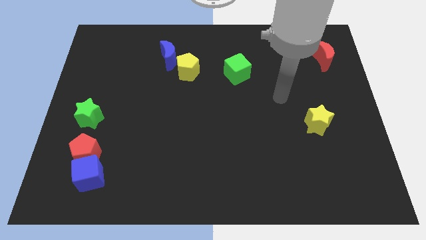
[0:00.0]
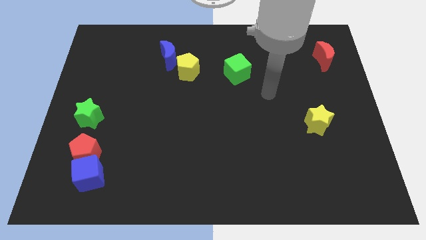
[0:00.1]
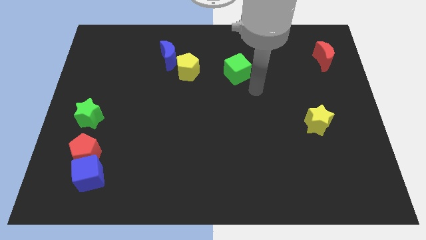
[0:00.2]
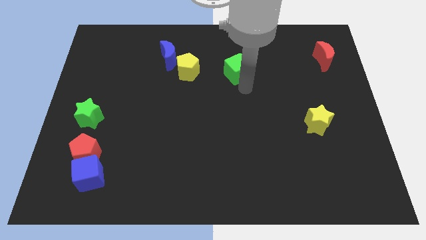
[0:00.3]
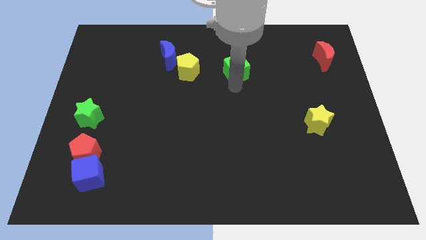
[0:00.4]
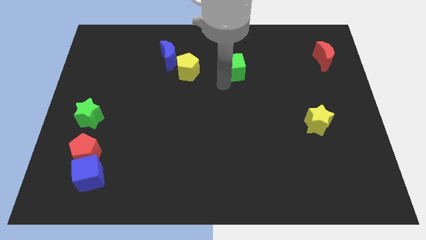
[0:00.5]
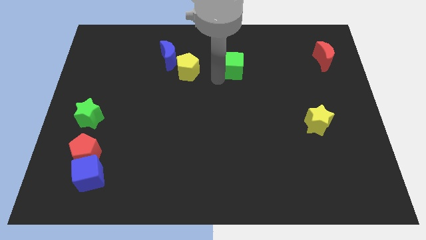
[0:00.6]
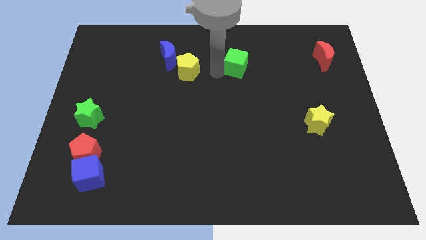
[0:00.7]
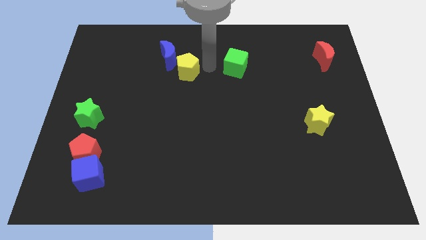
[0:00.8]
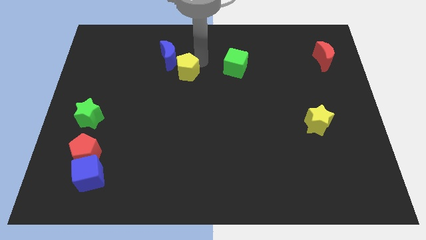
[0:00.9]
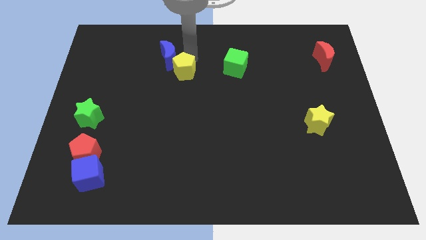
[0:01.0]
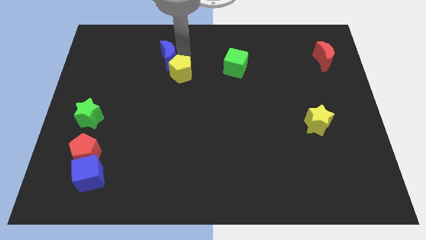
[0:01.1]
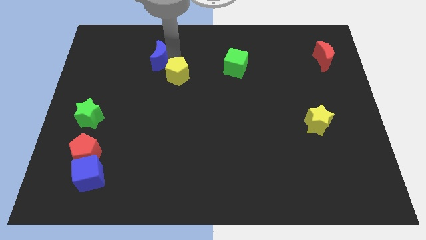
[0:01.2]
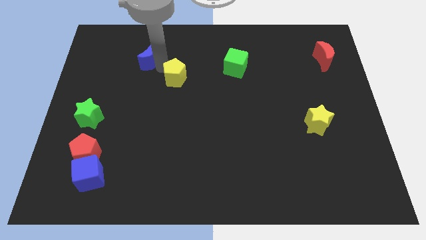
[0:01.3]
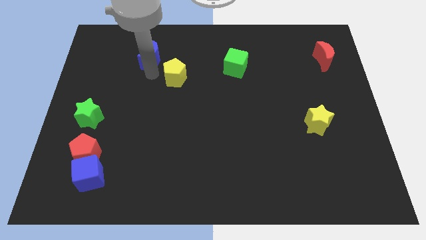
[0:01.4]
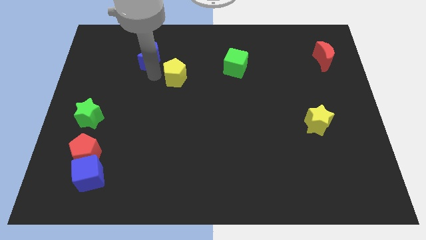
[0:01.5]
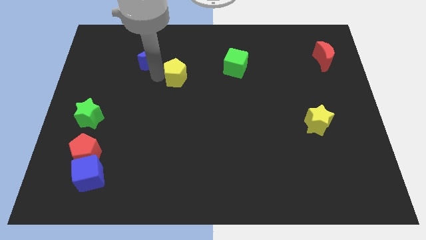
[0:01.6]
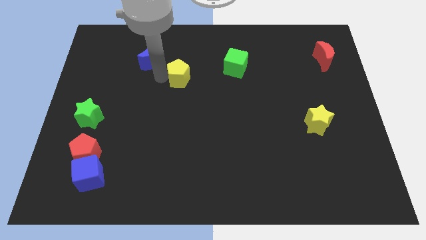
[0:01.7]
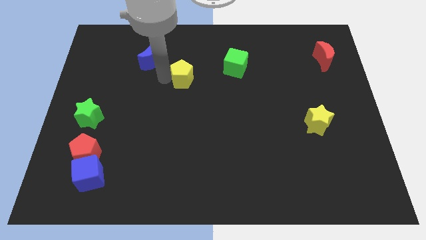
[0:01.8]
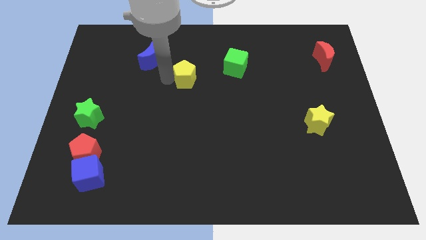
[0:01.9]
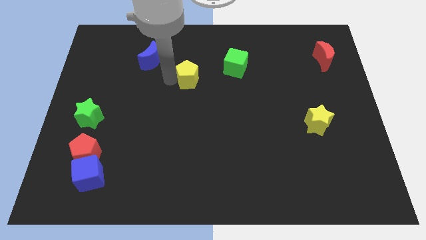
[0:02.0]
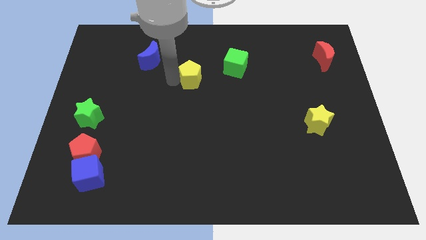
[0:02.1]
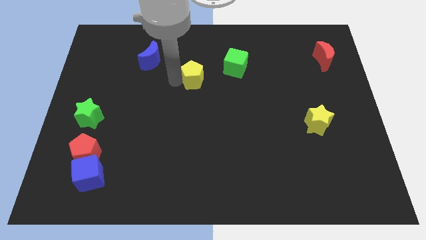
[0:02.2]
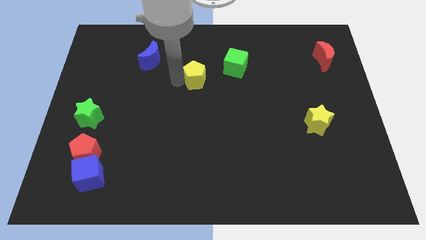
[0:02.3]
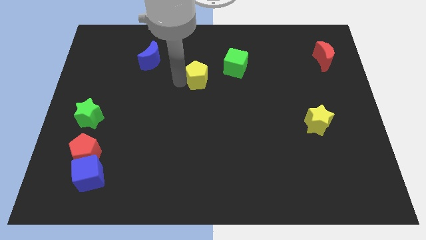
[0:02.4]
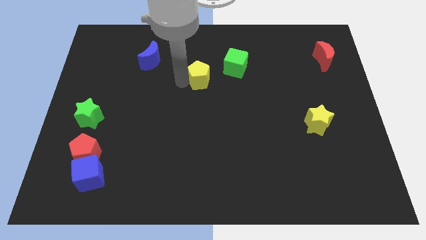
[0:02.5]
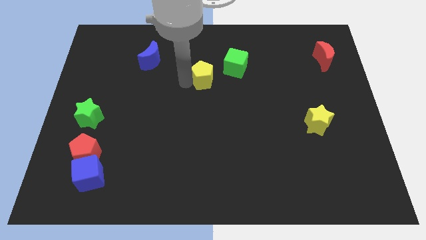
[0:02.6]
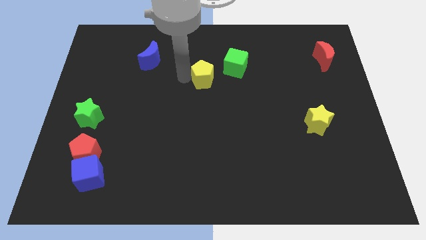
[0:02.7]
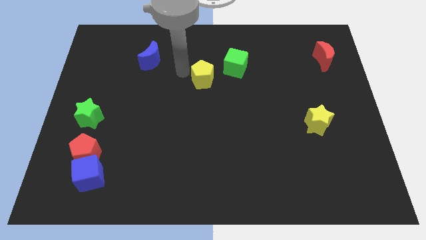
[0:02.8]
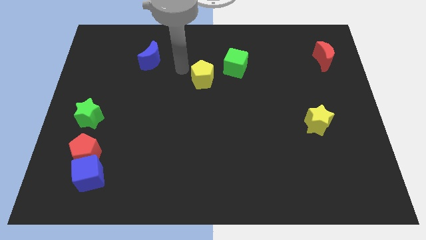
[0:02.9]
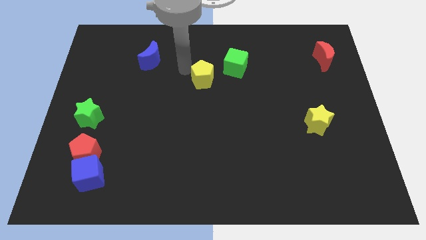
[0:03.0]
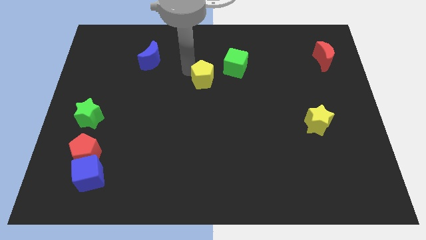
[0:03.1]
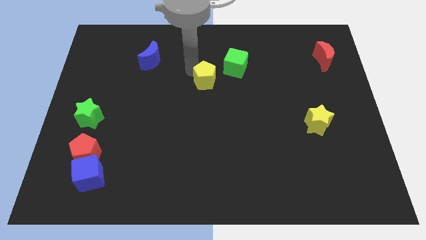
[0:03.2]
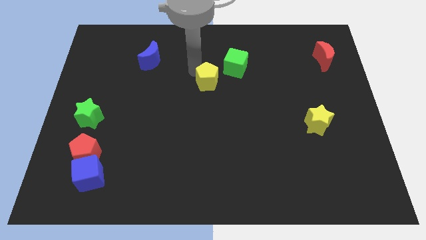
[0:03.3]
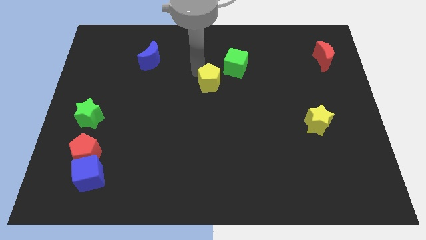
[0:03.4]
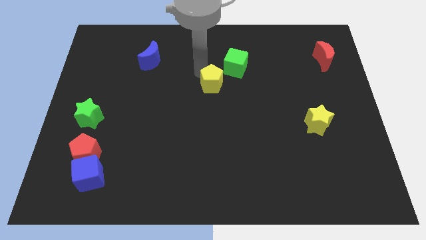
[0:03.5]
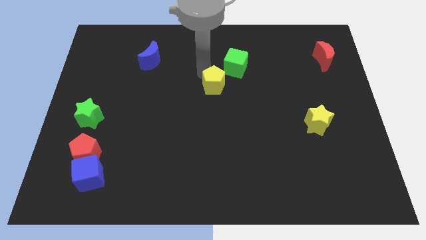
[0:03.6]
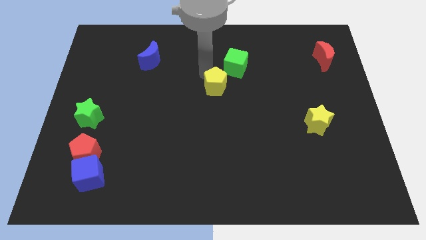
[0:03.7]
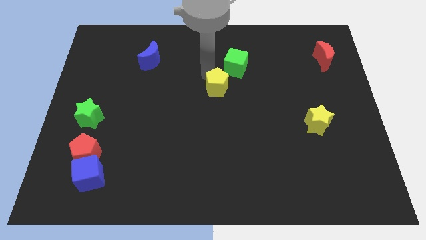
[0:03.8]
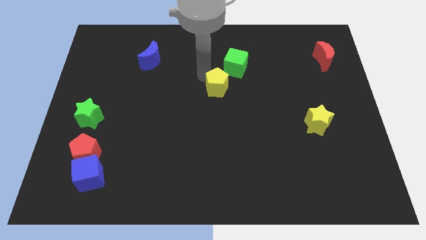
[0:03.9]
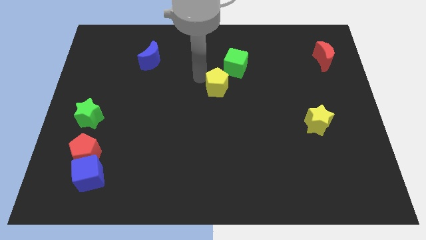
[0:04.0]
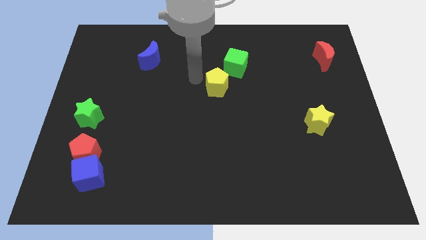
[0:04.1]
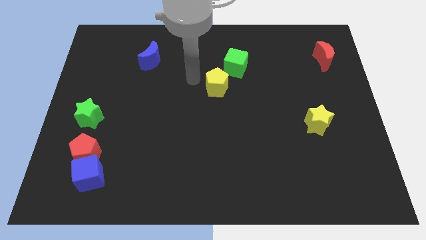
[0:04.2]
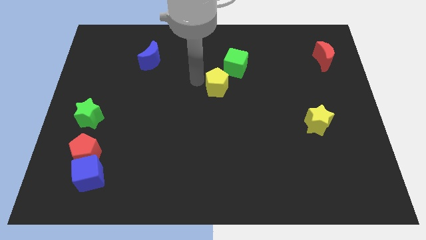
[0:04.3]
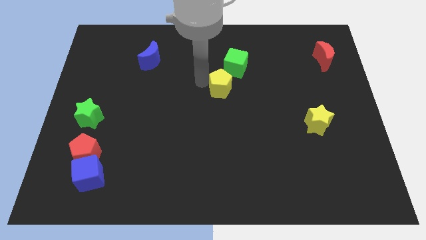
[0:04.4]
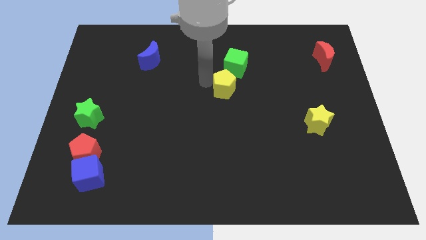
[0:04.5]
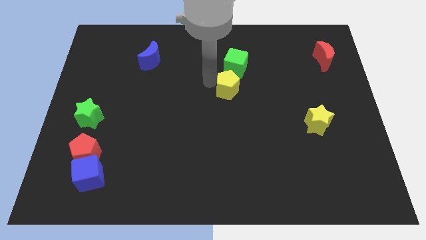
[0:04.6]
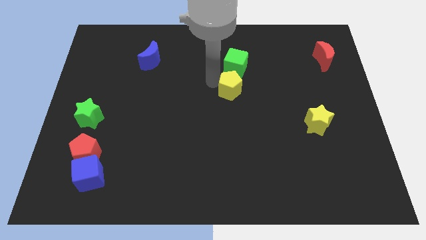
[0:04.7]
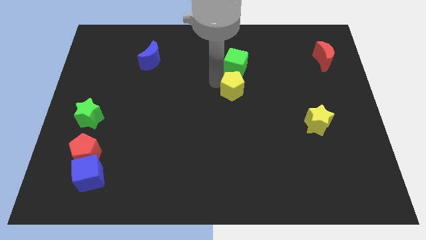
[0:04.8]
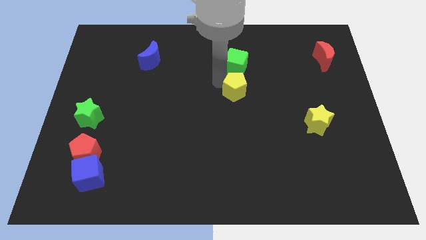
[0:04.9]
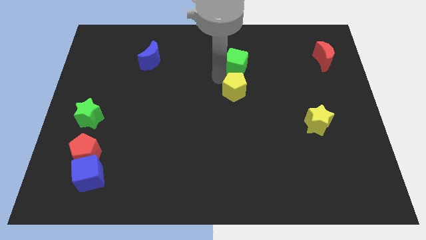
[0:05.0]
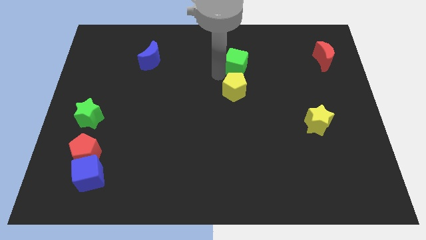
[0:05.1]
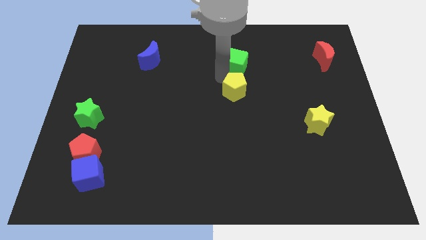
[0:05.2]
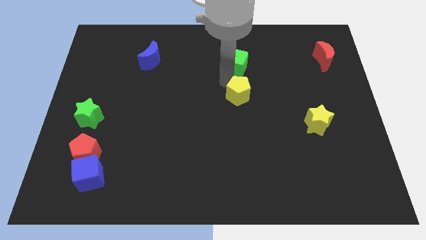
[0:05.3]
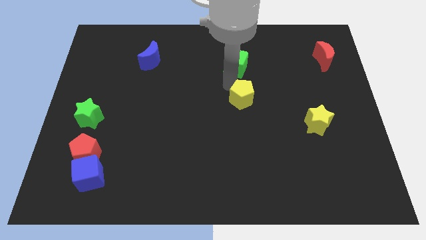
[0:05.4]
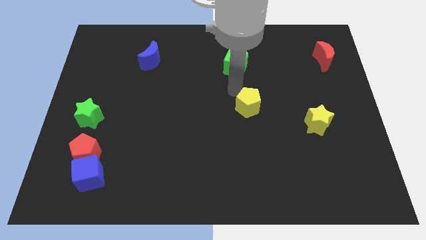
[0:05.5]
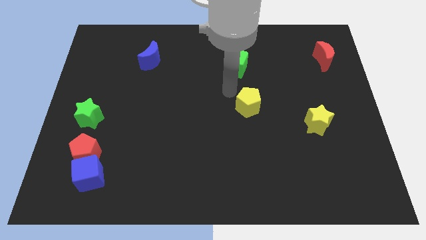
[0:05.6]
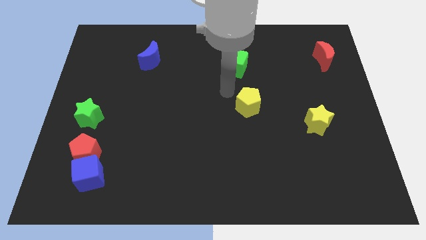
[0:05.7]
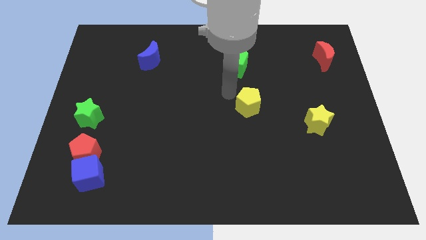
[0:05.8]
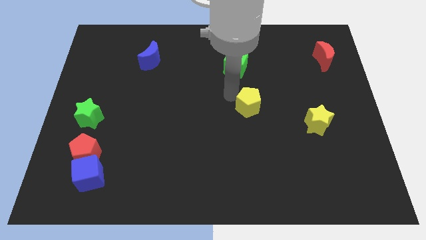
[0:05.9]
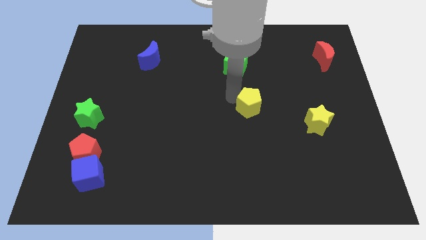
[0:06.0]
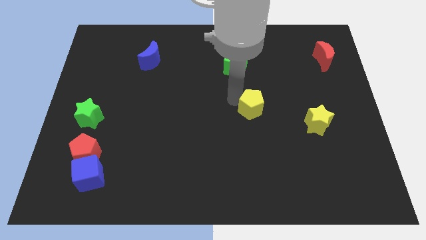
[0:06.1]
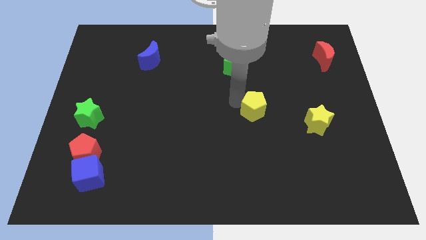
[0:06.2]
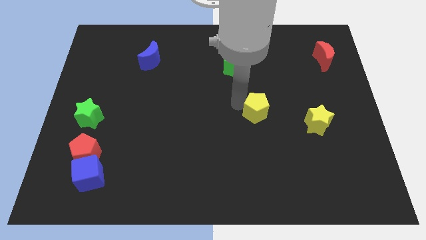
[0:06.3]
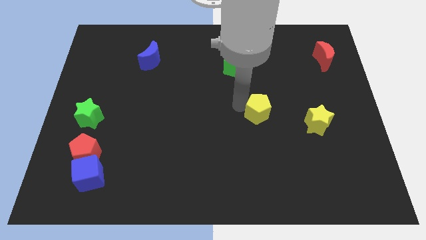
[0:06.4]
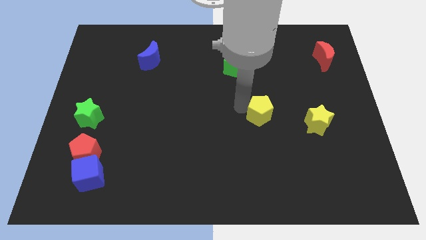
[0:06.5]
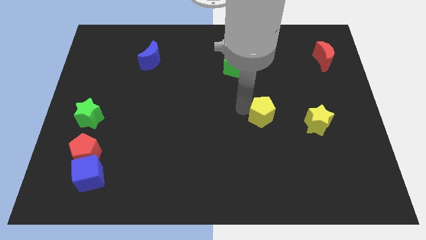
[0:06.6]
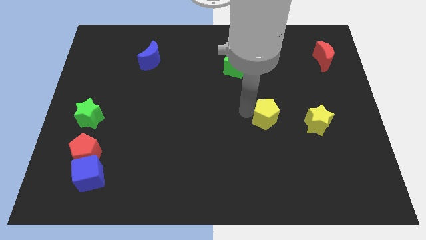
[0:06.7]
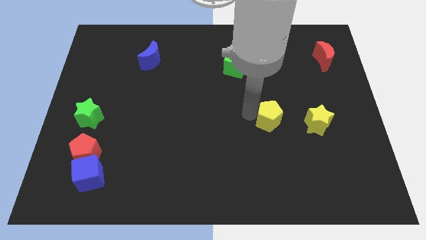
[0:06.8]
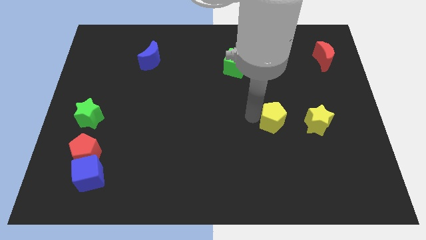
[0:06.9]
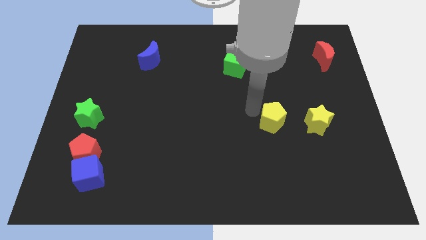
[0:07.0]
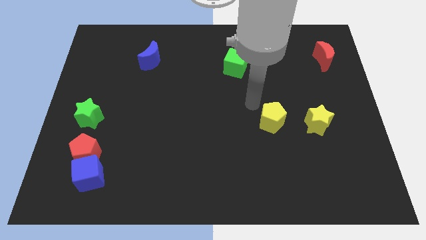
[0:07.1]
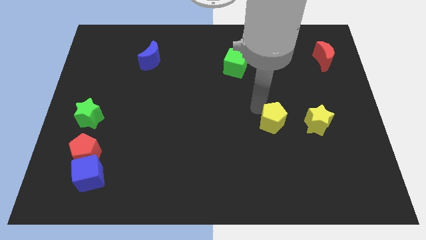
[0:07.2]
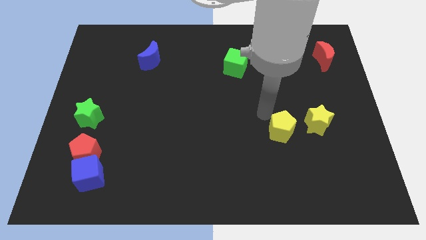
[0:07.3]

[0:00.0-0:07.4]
push the yellow pentagon diagonally down and to the left of the yellow star

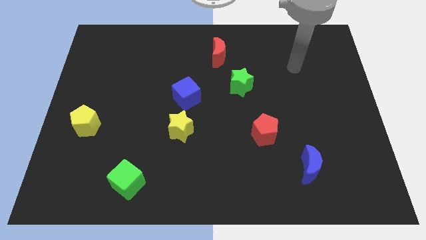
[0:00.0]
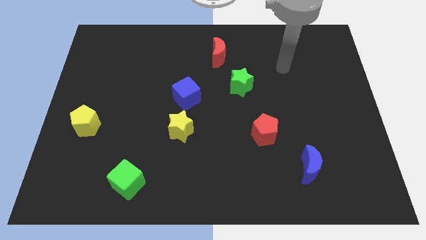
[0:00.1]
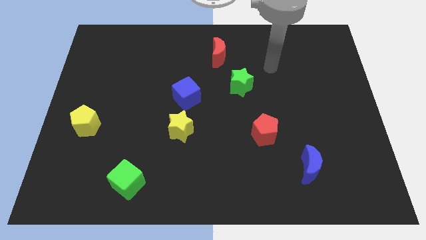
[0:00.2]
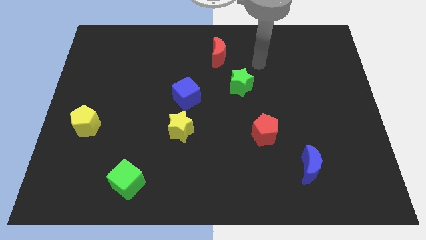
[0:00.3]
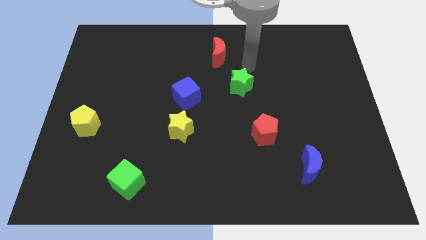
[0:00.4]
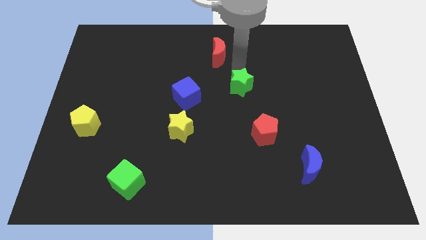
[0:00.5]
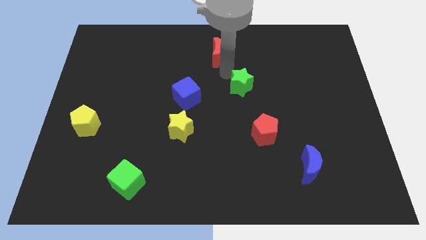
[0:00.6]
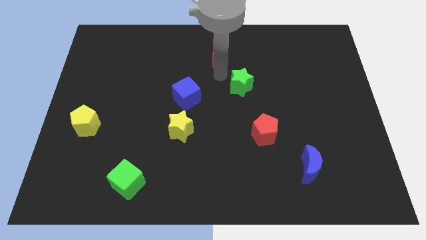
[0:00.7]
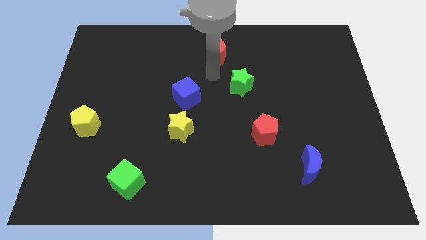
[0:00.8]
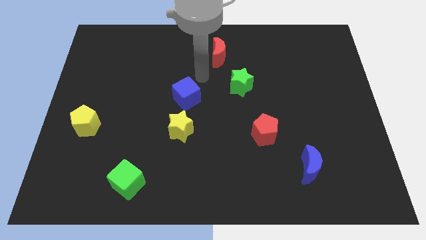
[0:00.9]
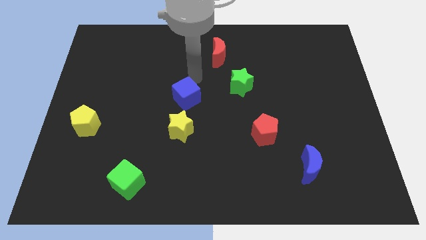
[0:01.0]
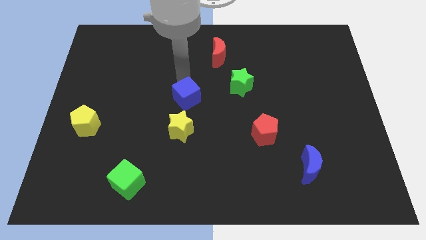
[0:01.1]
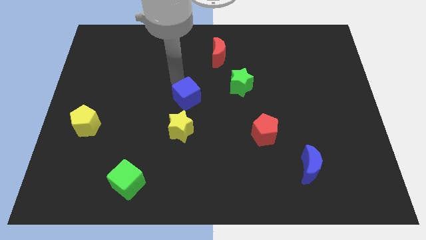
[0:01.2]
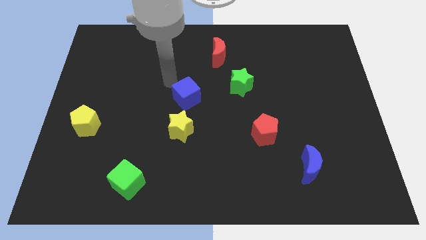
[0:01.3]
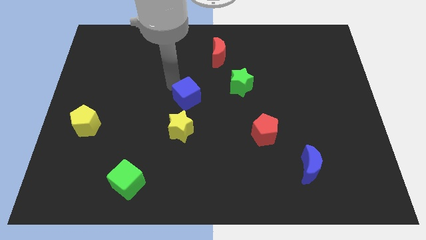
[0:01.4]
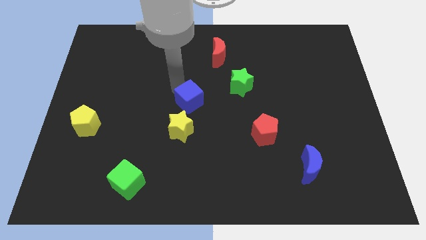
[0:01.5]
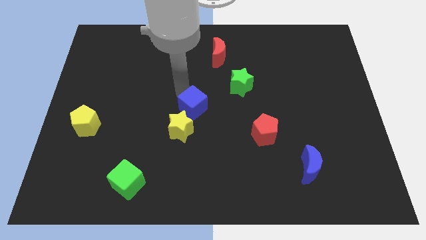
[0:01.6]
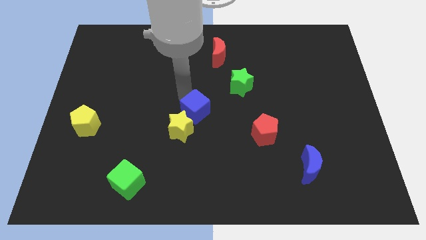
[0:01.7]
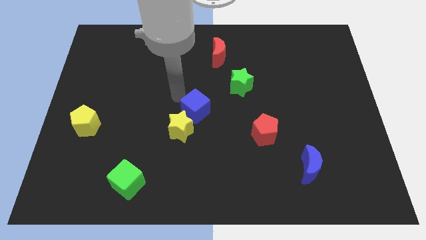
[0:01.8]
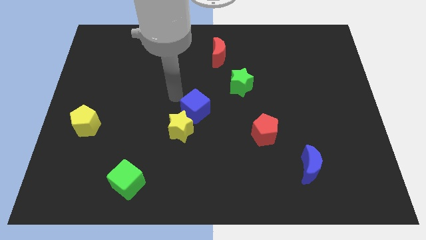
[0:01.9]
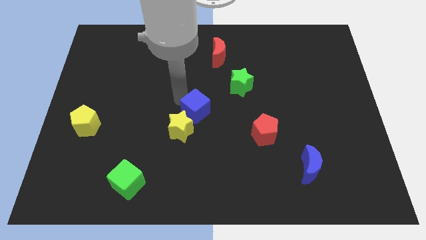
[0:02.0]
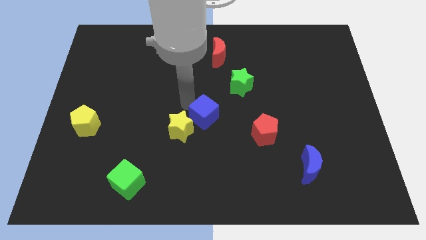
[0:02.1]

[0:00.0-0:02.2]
put the blue cube right of the yellow star
